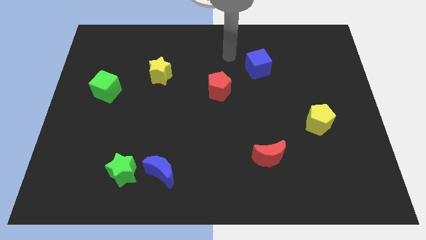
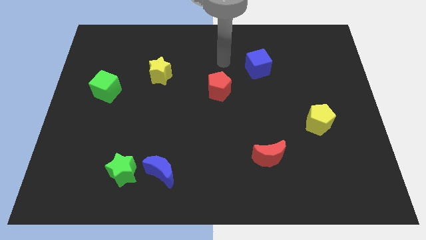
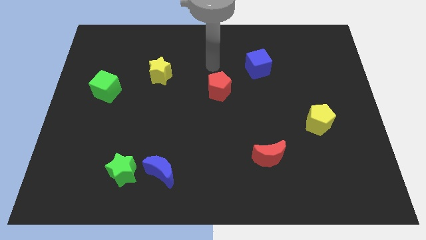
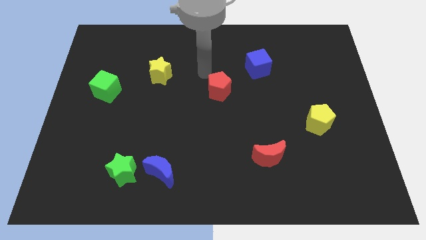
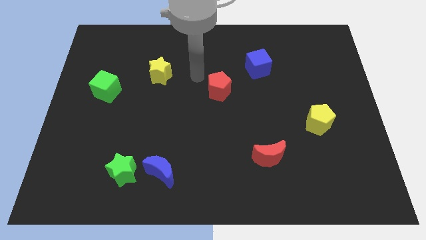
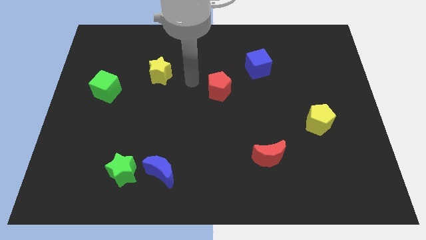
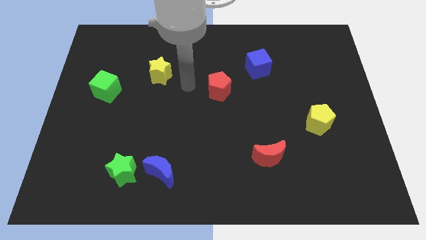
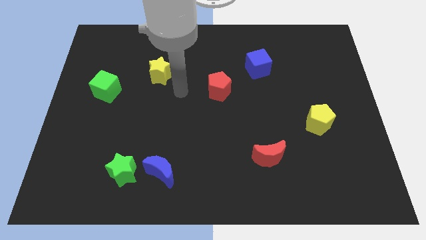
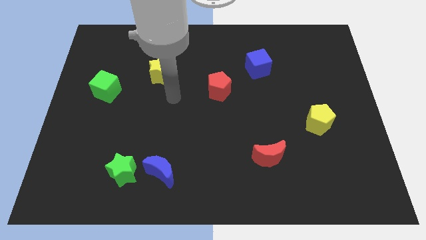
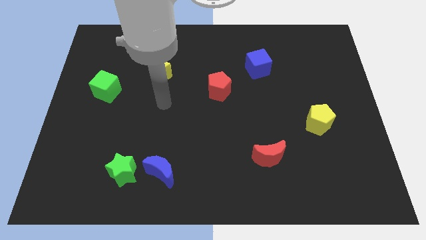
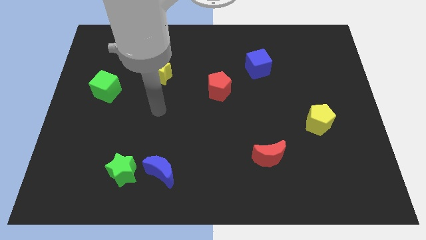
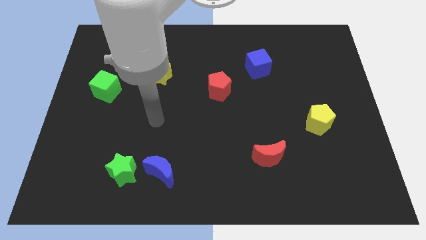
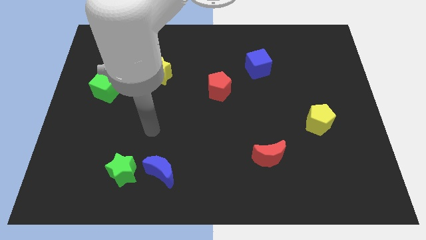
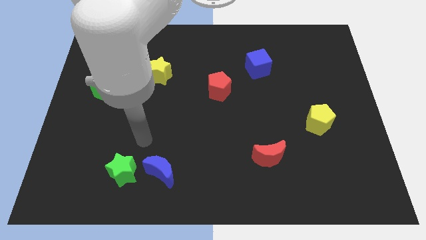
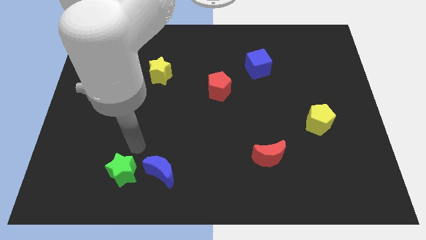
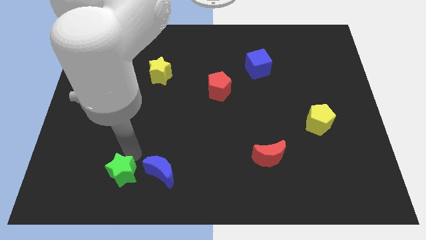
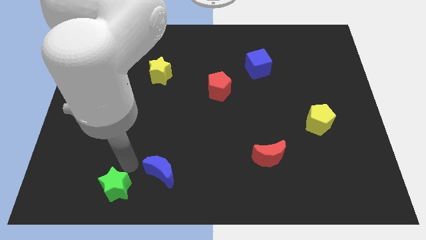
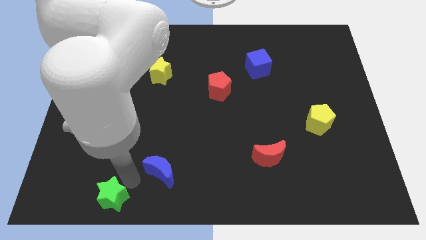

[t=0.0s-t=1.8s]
pull the blue moon apart from the green star

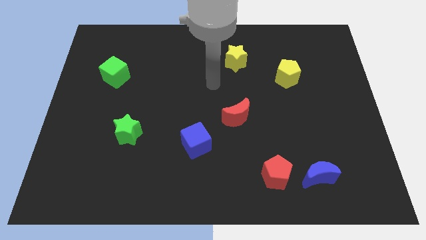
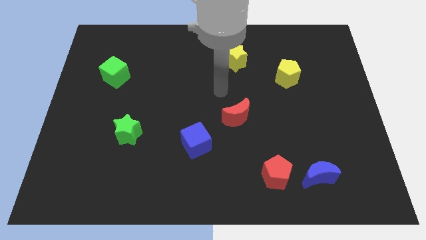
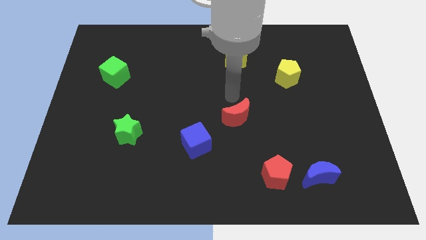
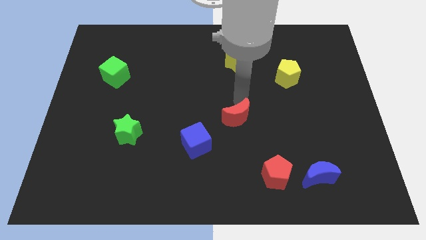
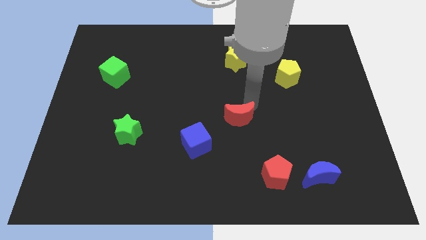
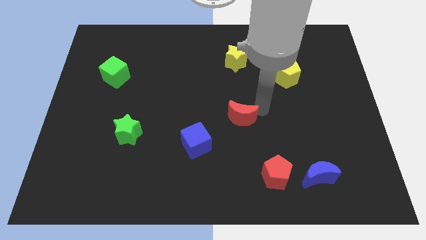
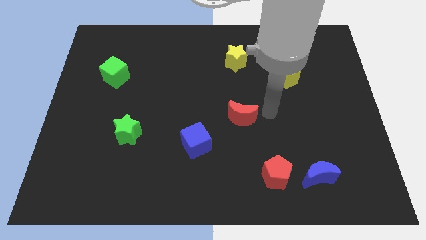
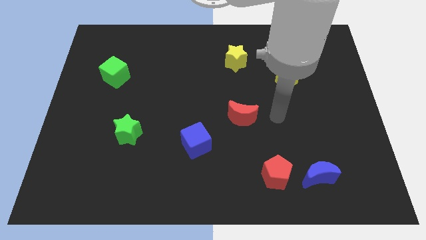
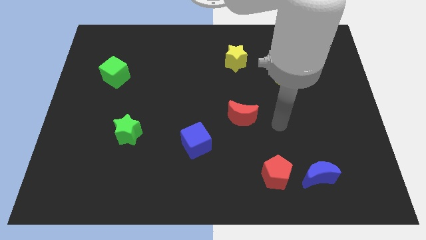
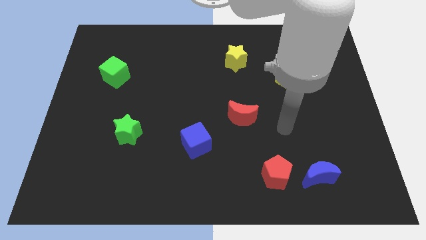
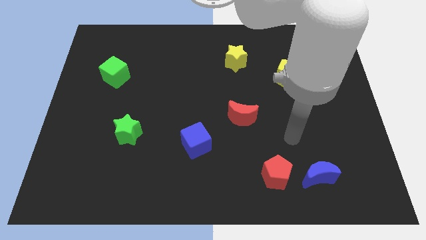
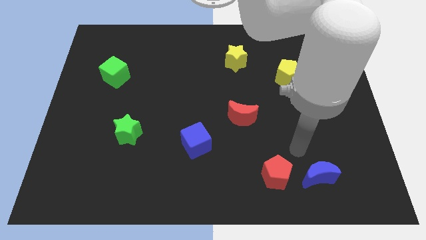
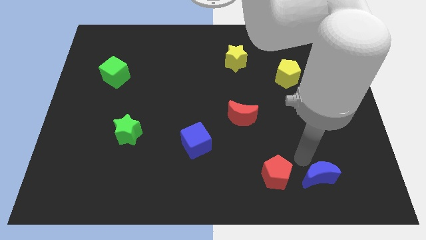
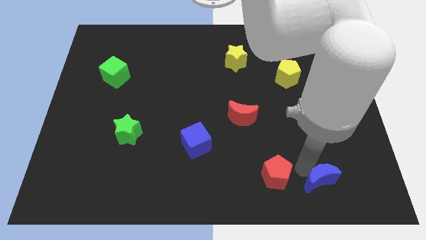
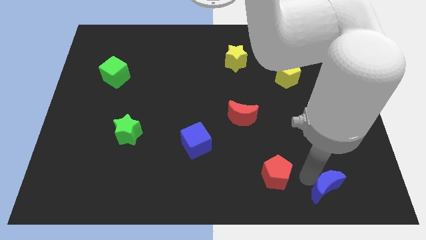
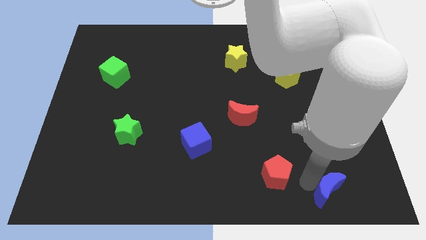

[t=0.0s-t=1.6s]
move the red pentagon away from the blue moon

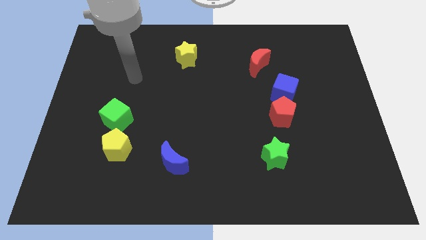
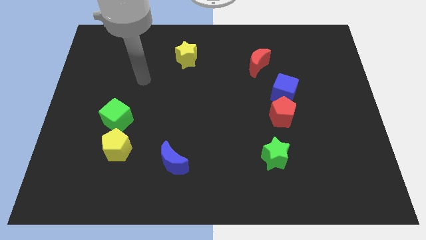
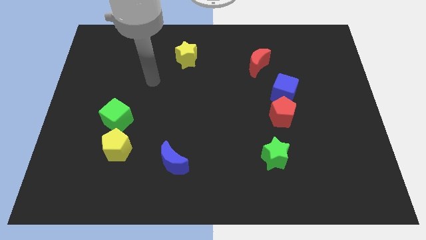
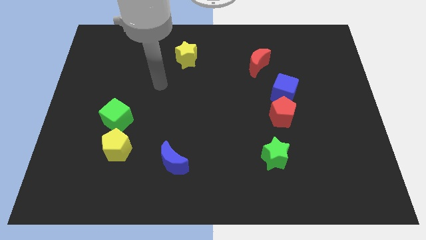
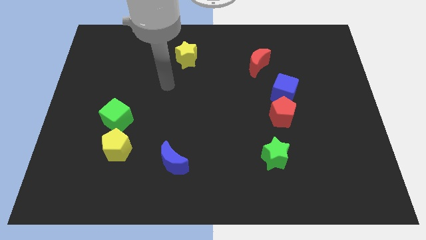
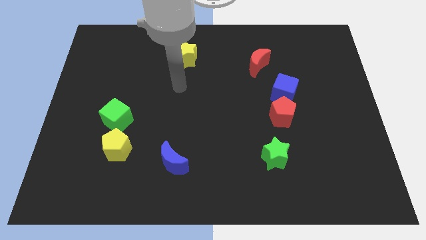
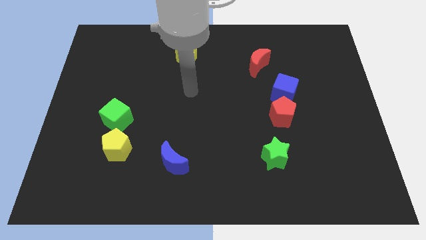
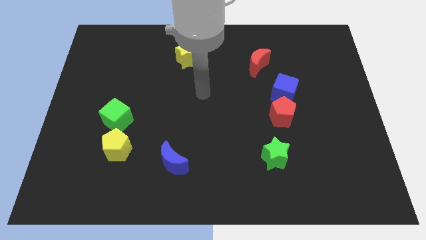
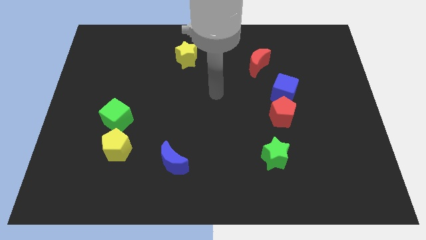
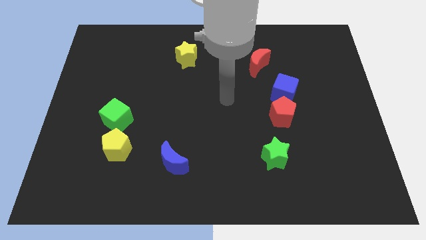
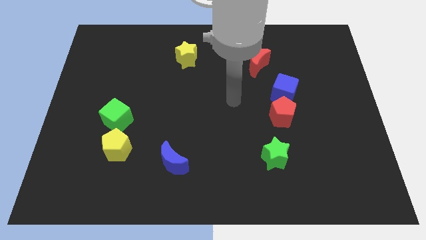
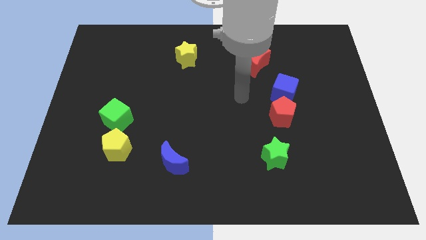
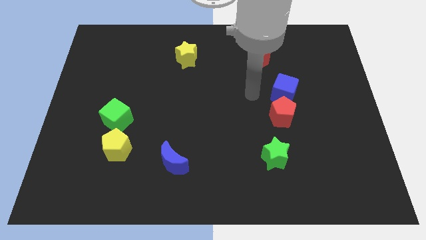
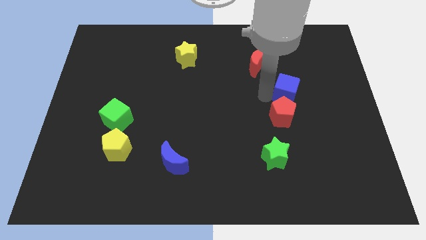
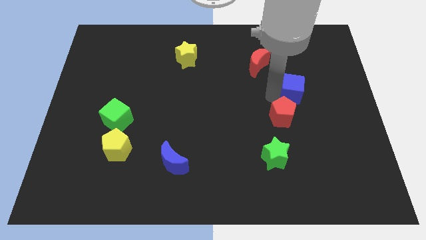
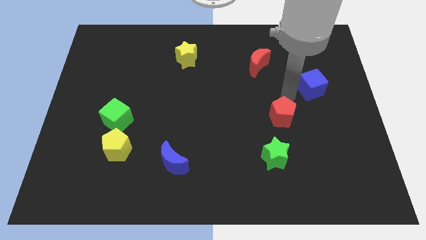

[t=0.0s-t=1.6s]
pull the red pentagon apart from the blue cube

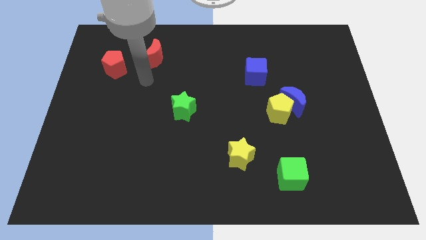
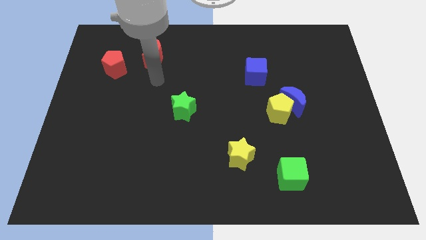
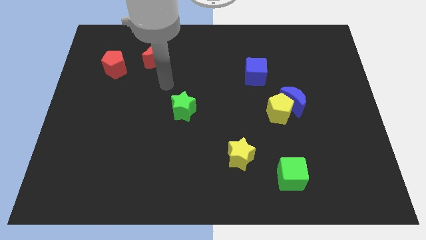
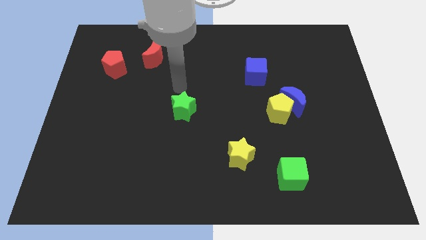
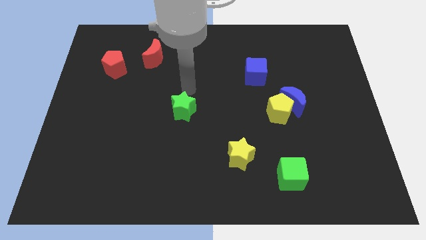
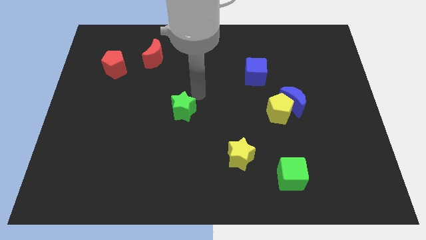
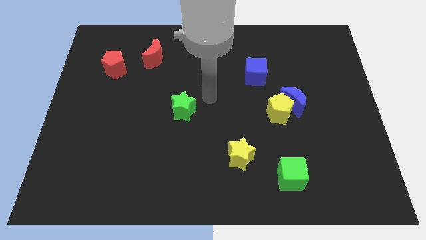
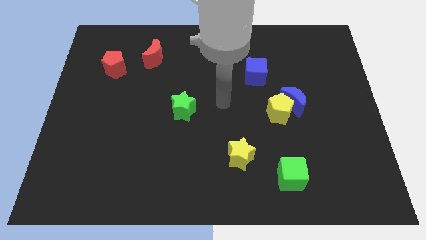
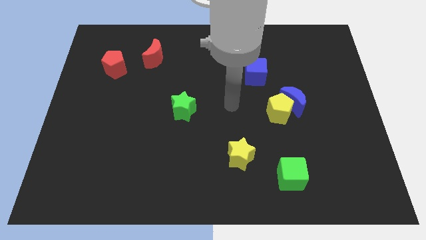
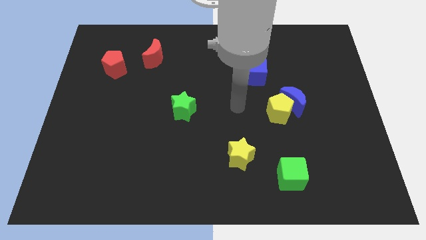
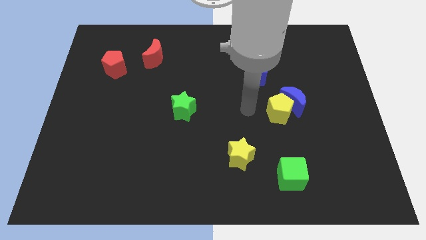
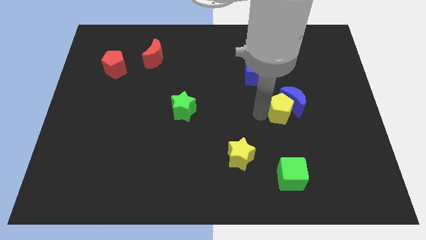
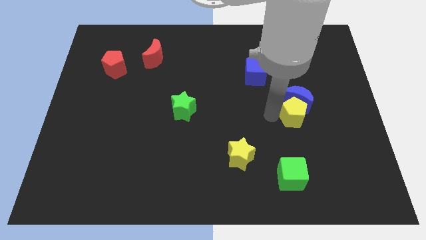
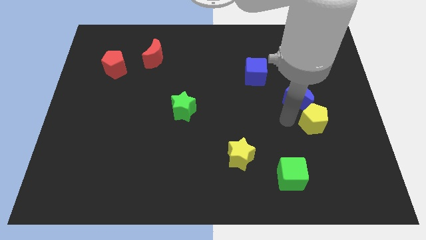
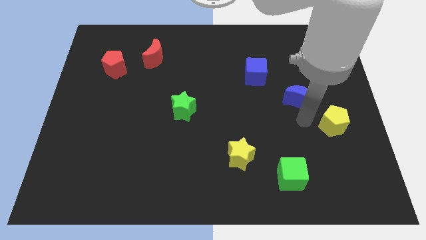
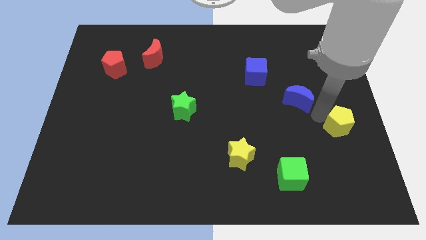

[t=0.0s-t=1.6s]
separate the blue moon from the yellow pentagon

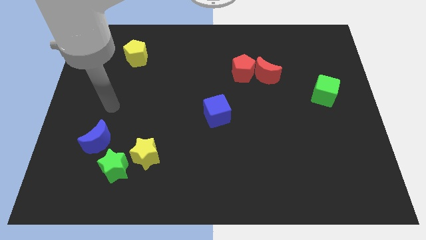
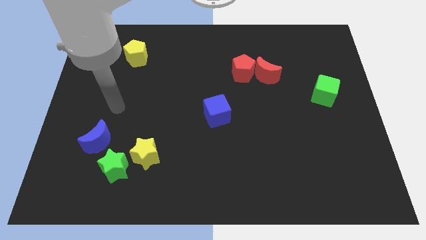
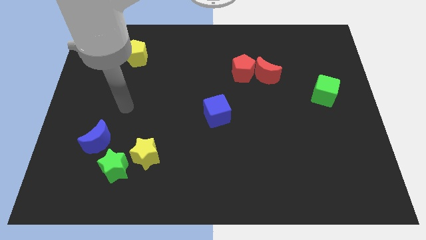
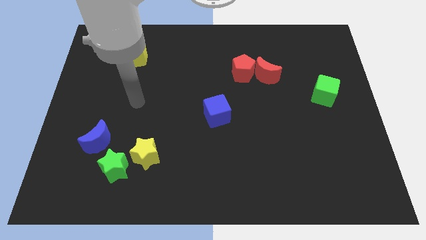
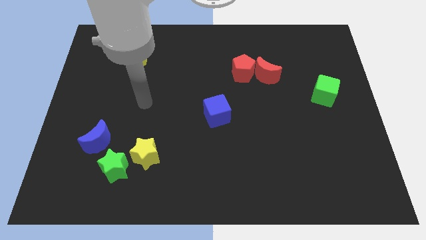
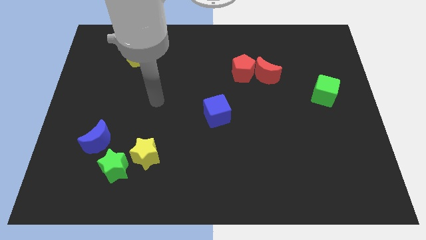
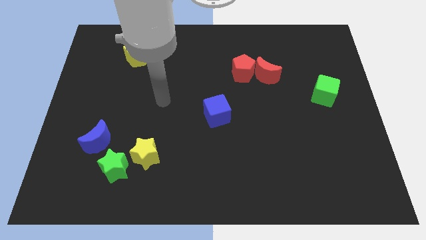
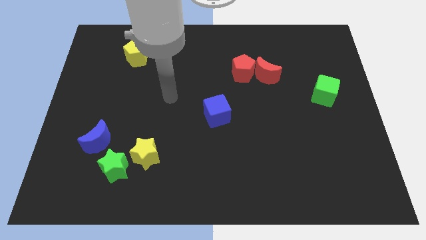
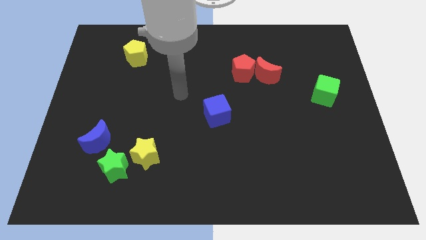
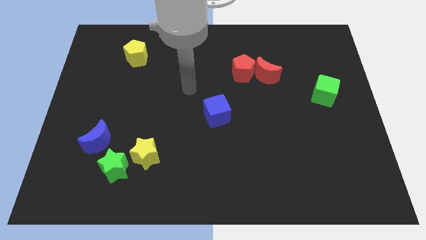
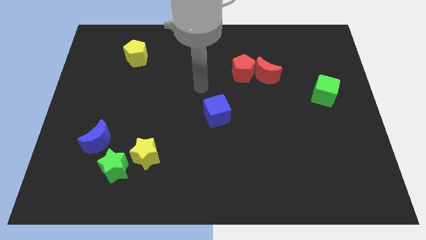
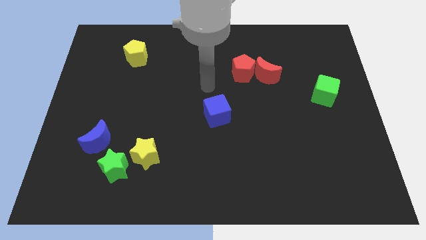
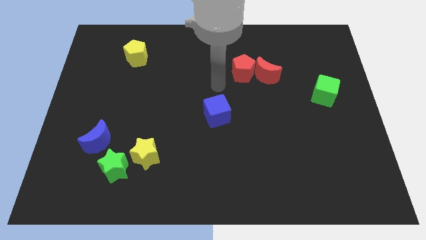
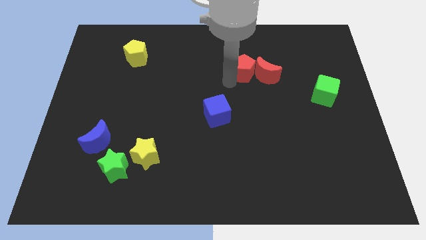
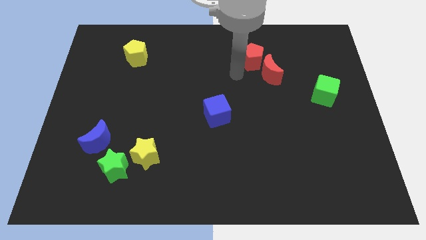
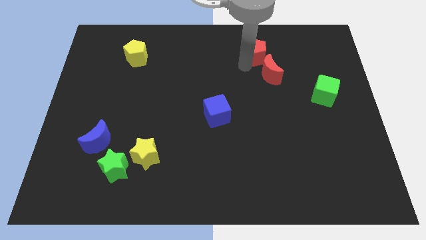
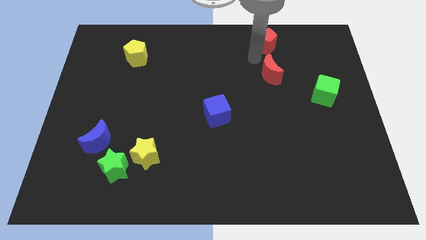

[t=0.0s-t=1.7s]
move the red moon away from the red pentagon

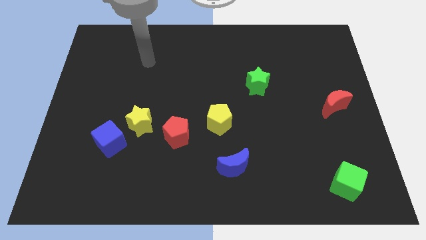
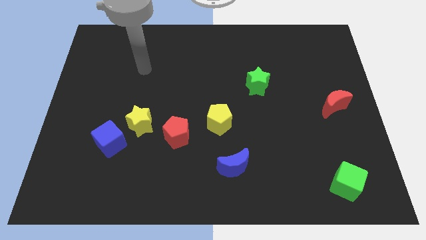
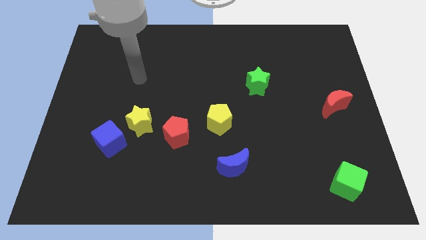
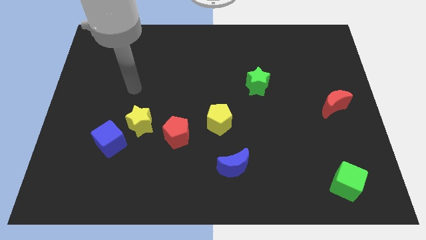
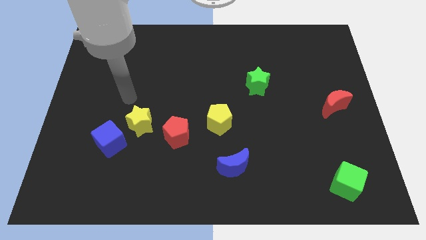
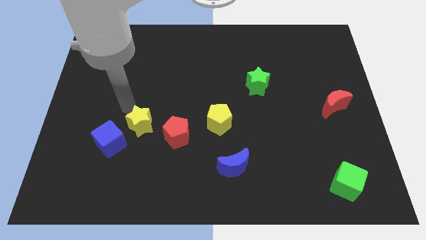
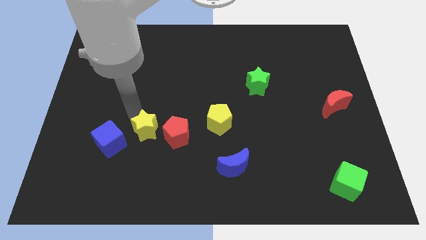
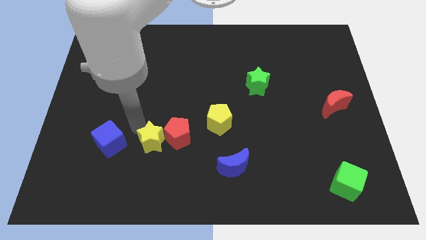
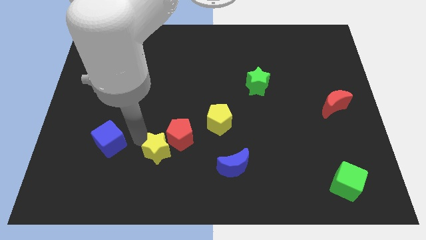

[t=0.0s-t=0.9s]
move the blue cube away from the yellow star
